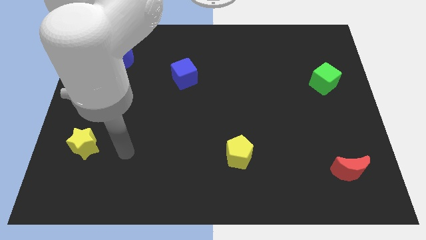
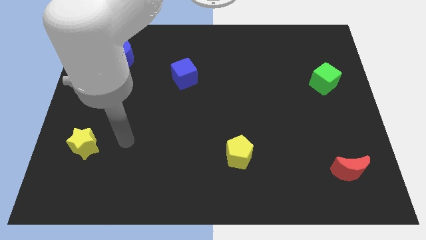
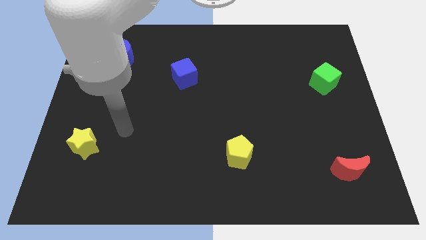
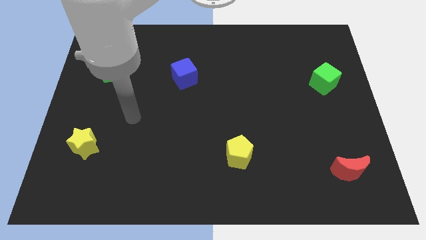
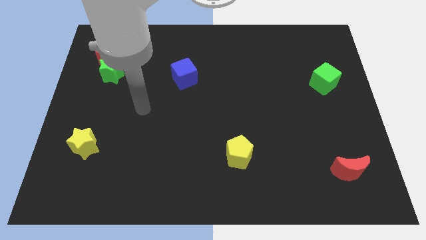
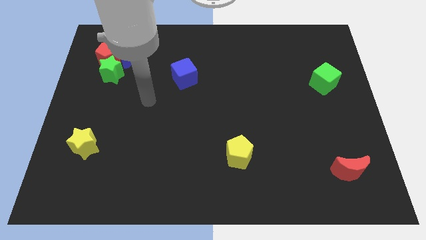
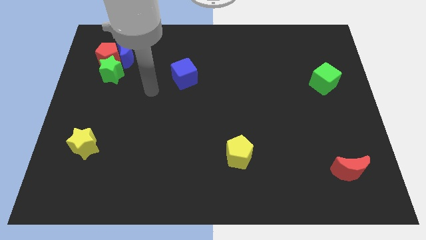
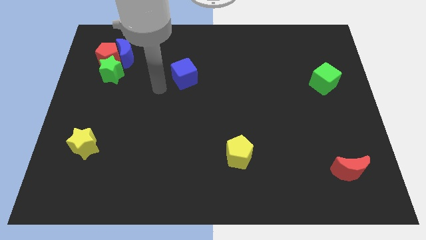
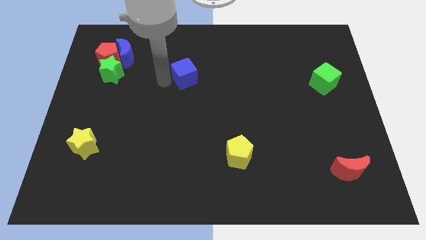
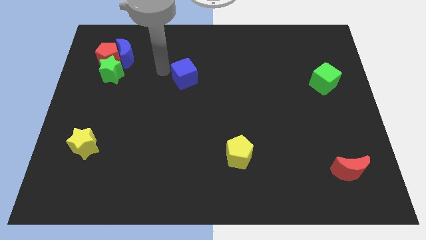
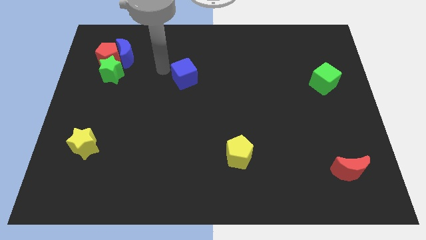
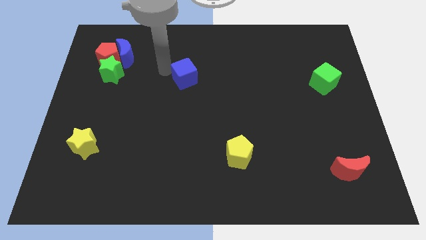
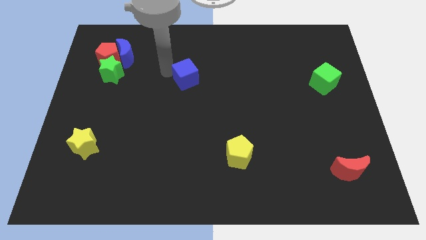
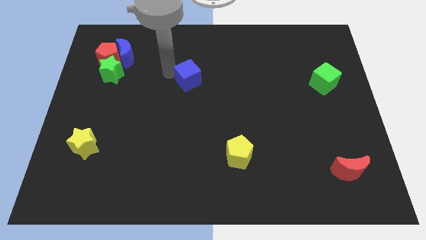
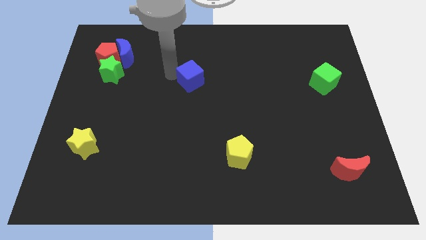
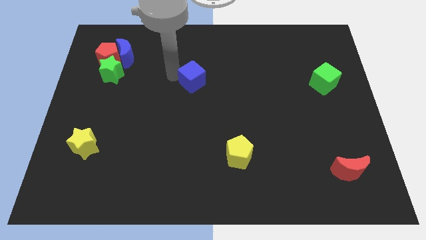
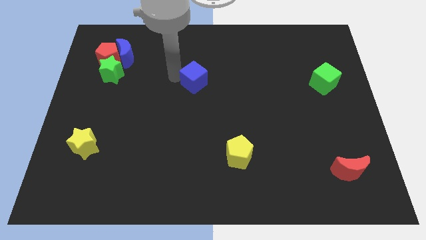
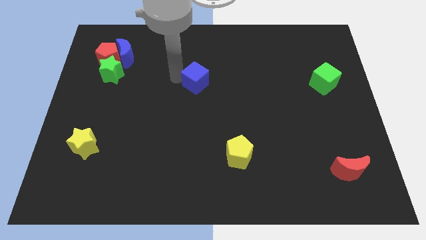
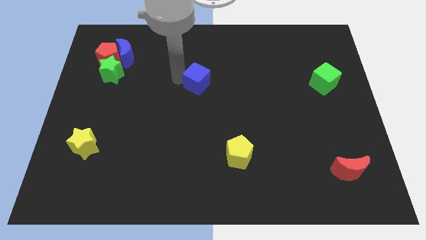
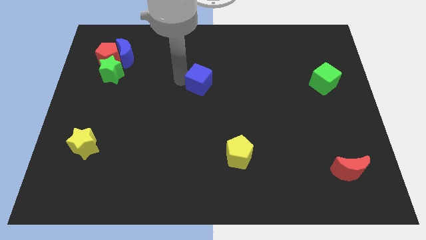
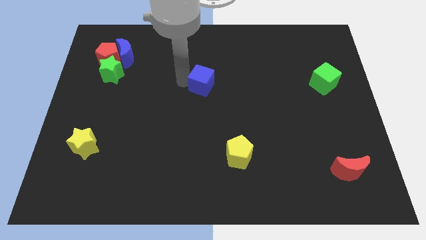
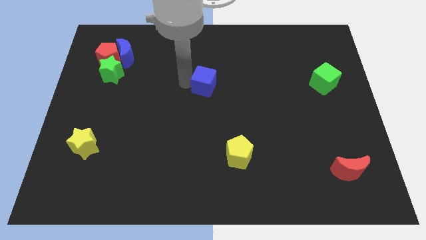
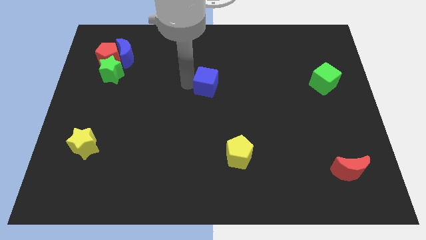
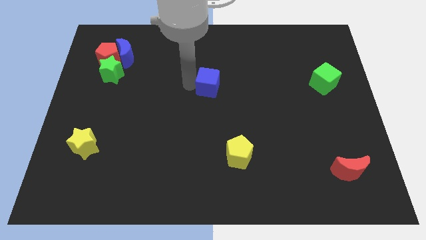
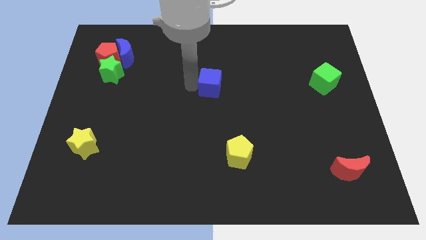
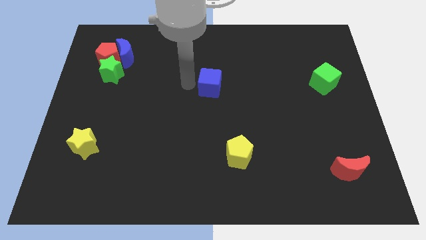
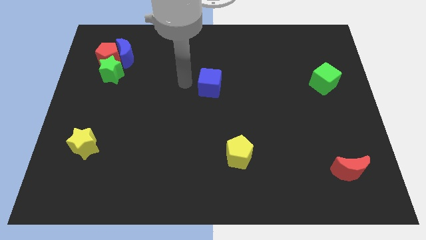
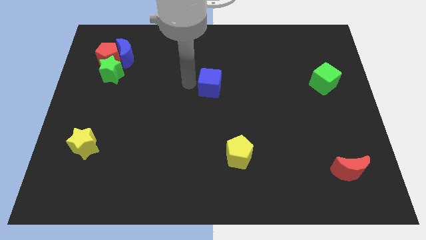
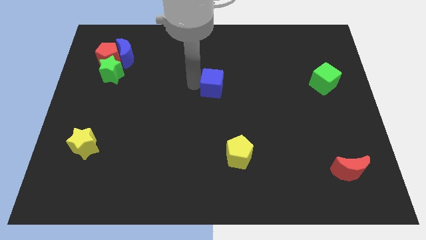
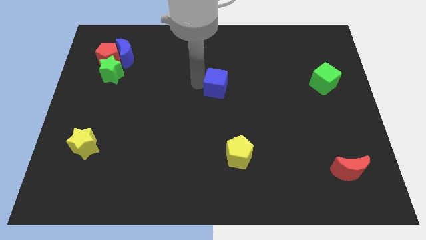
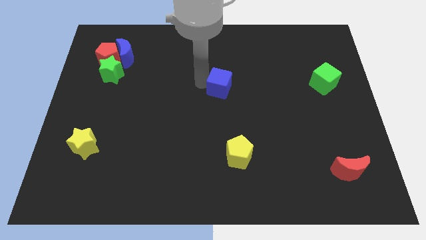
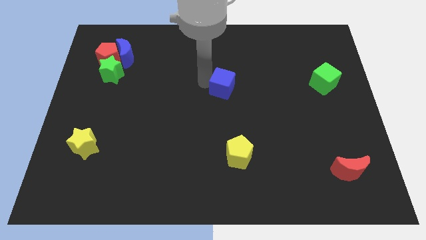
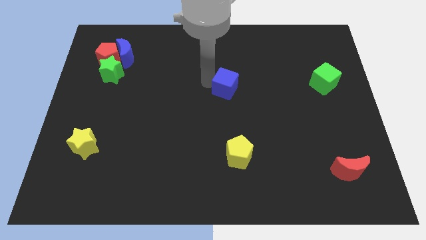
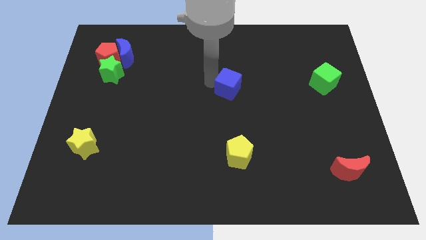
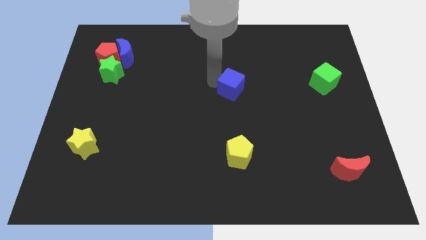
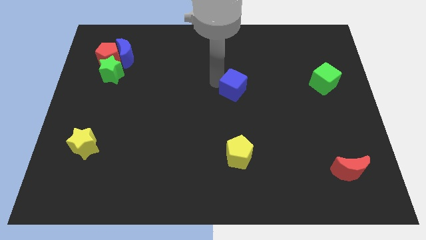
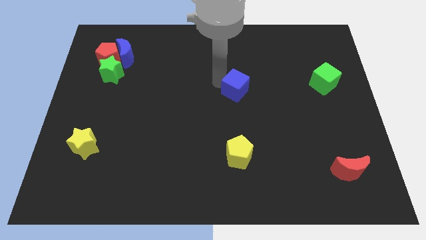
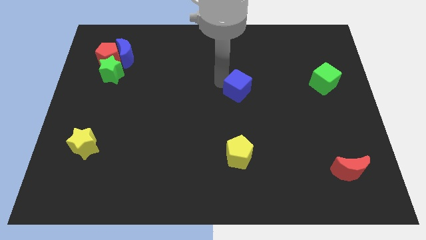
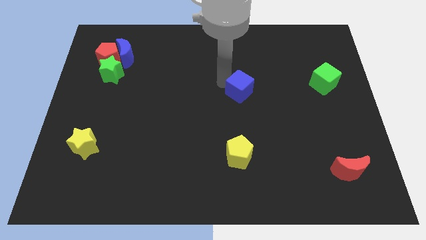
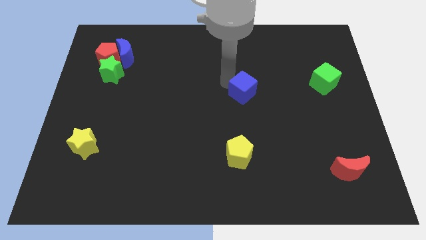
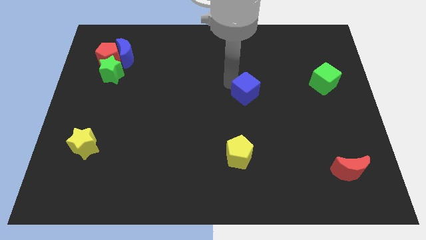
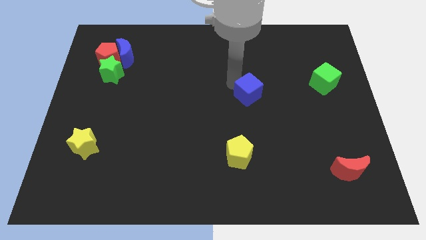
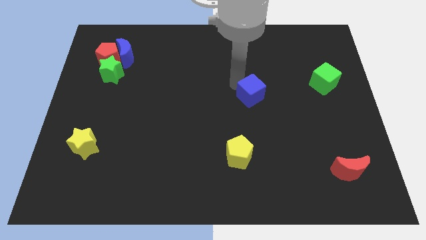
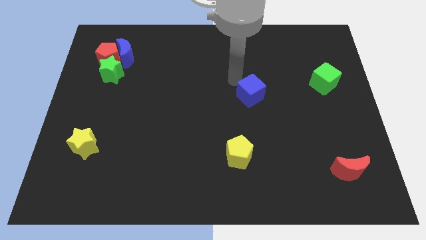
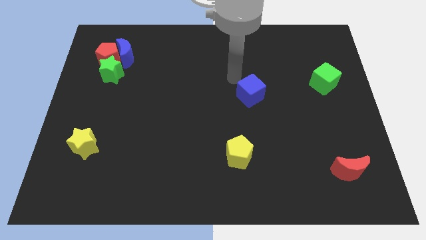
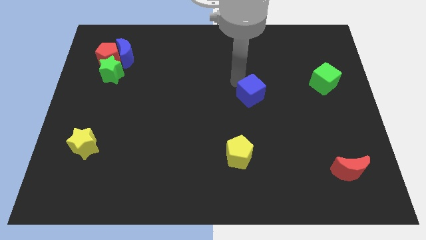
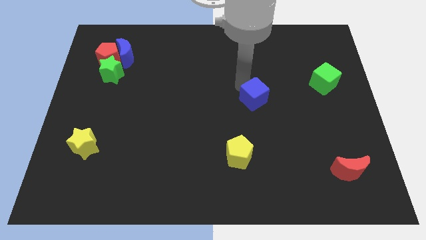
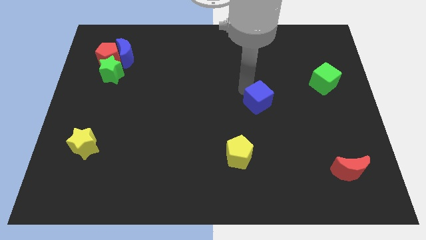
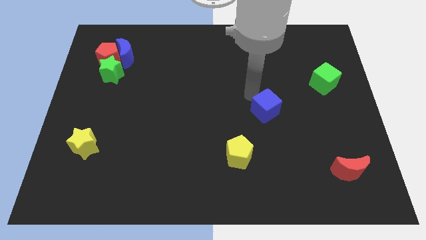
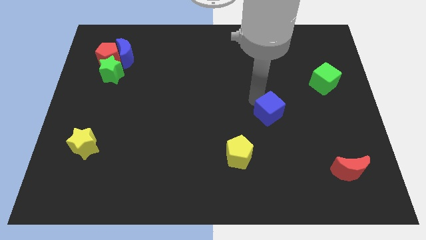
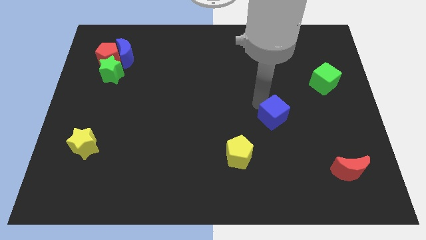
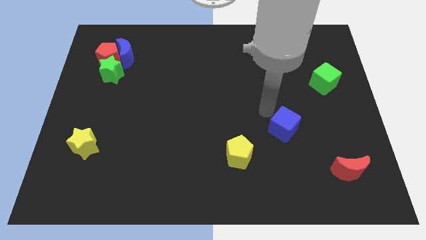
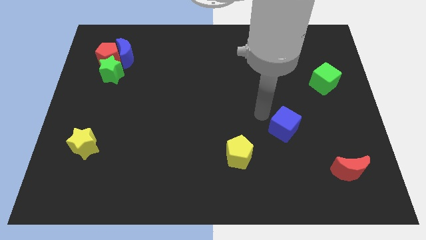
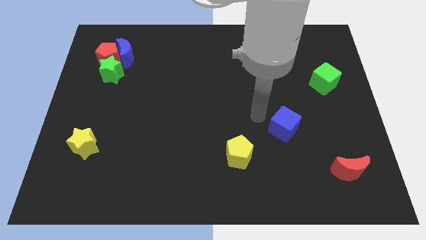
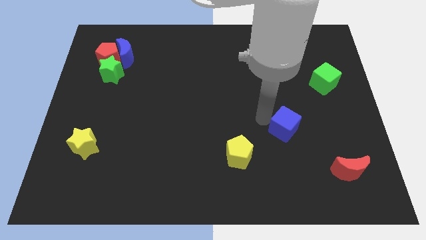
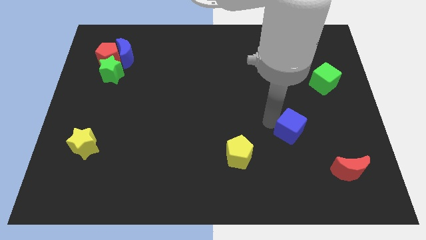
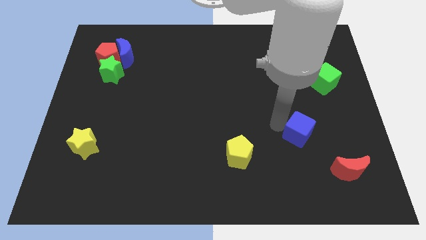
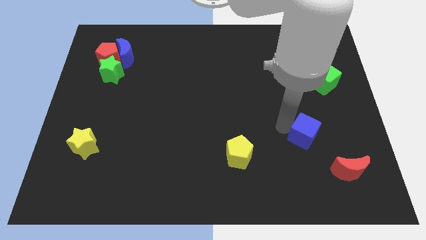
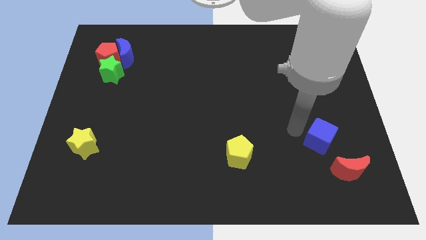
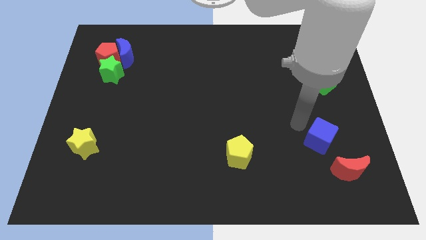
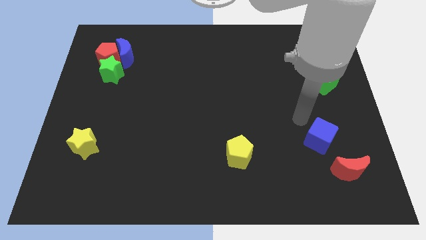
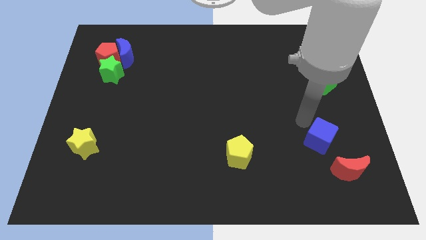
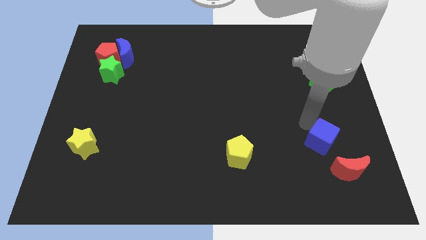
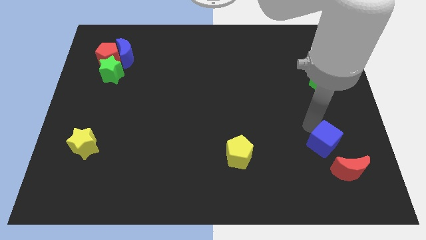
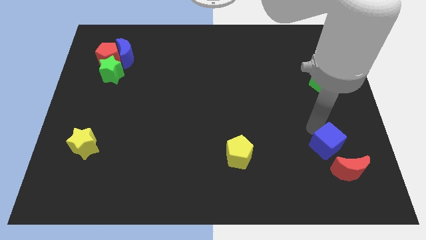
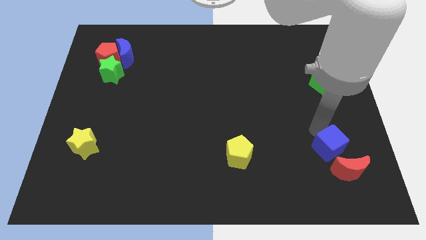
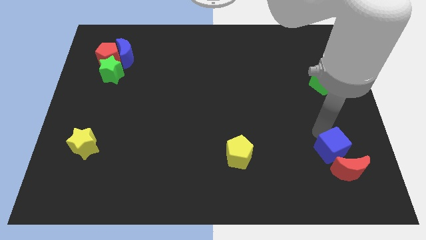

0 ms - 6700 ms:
slide the blue cube towards the red moon

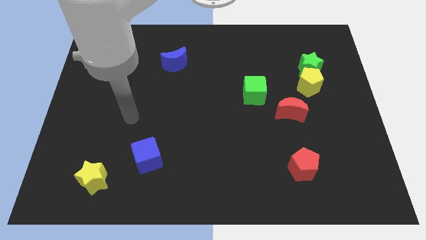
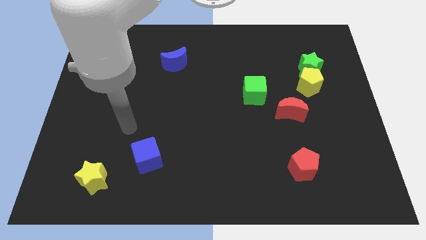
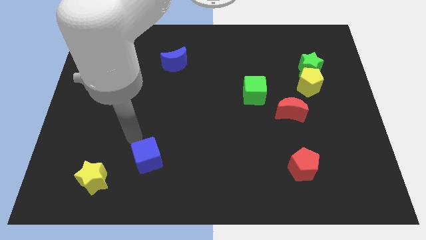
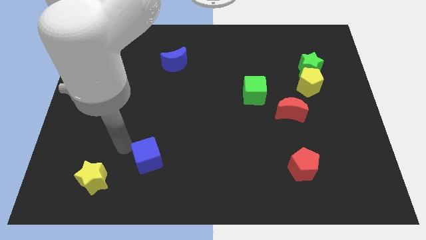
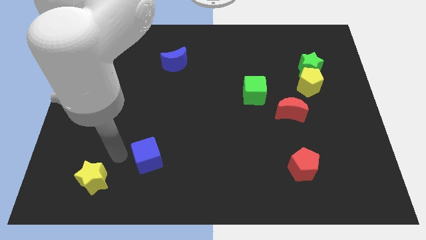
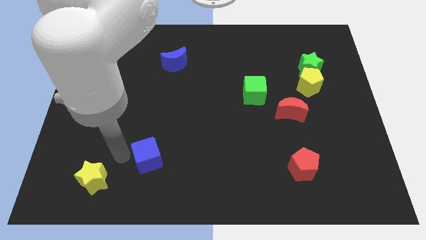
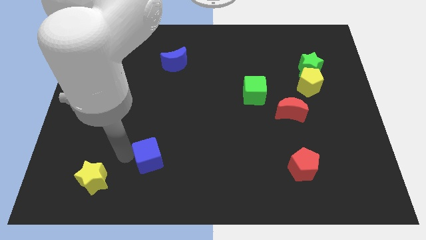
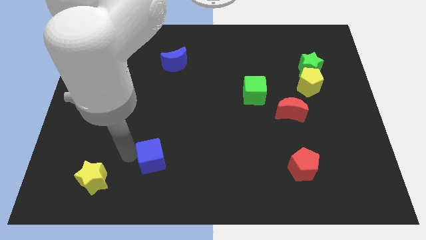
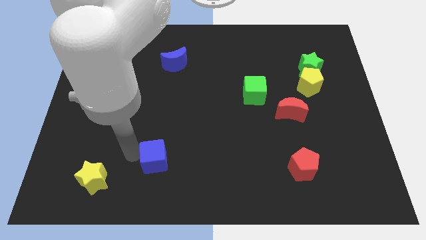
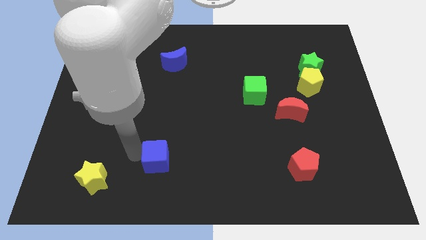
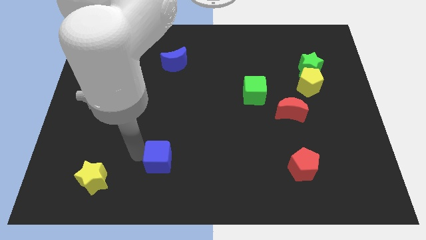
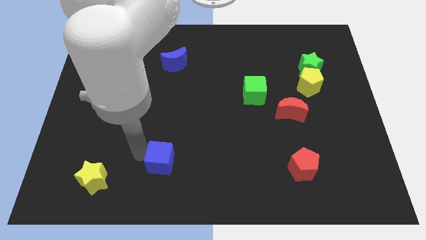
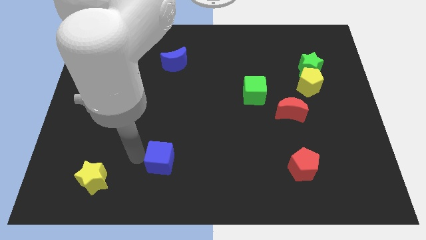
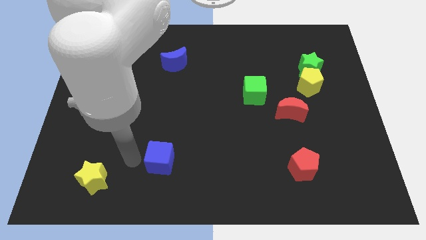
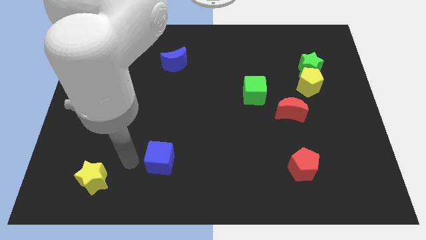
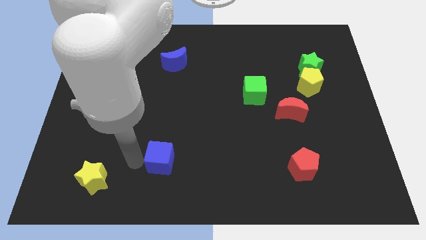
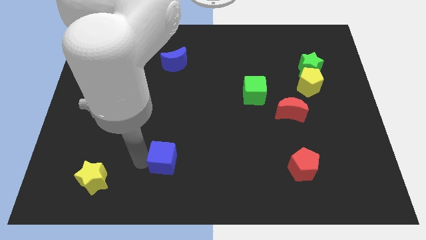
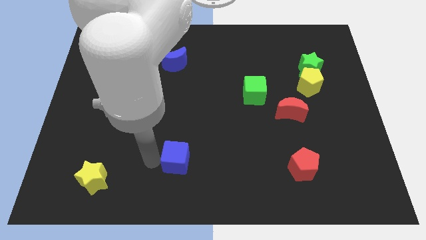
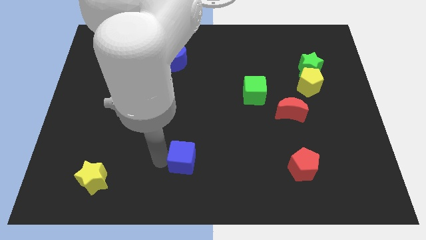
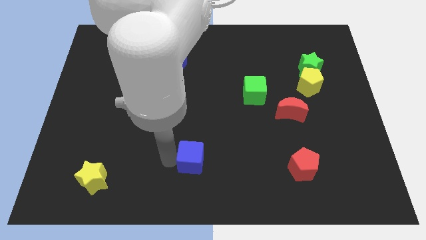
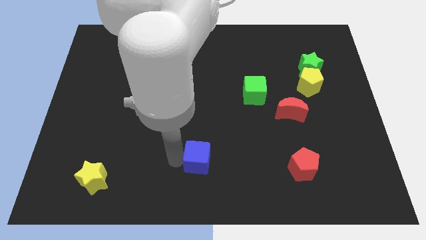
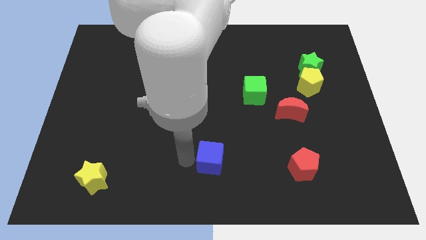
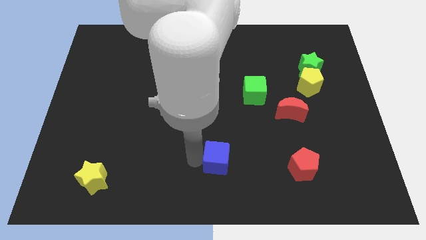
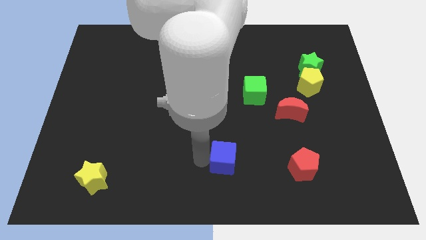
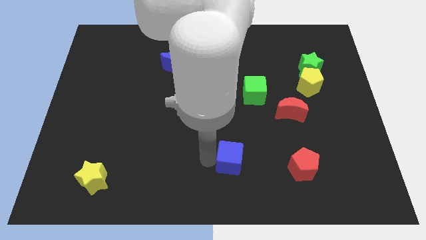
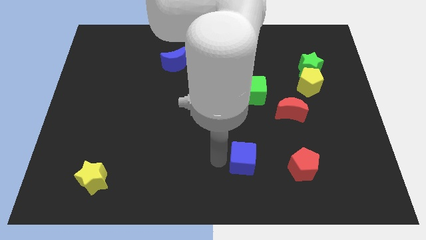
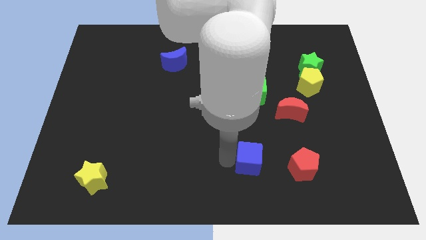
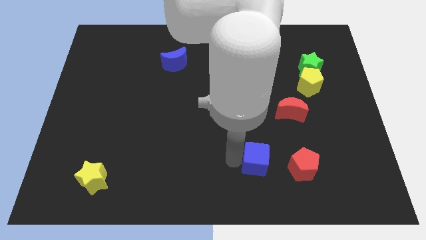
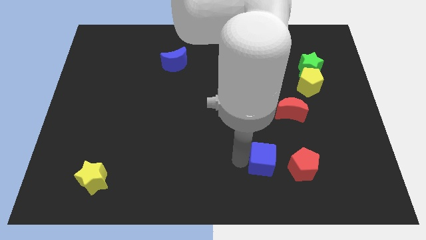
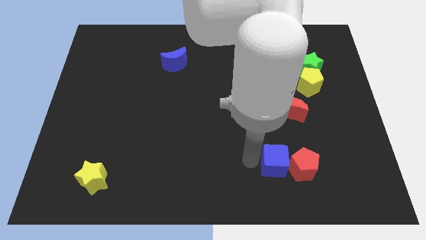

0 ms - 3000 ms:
push the blue cube to the red pentagon
